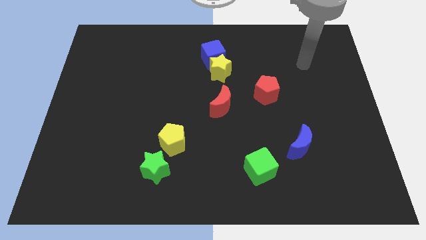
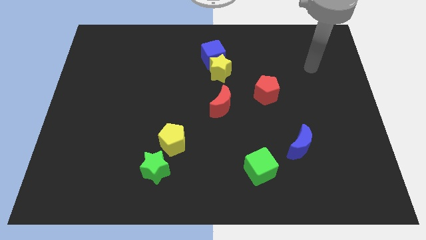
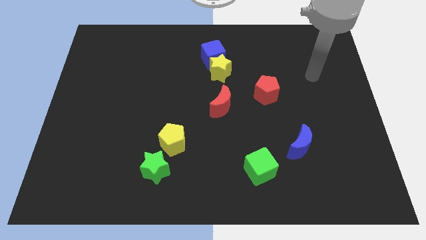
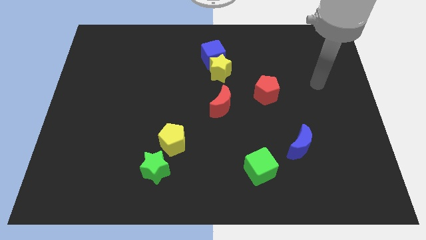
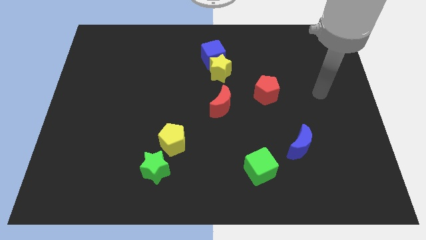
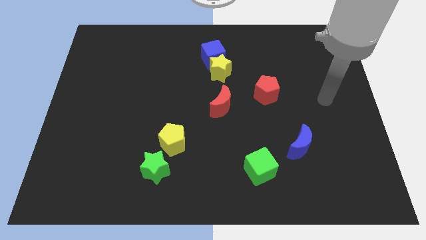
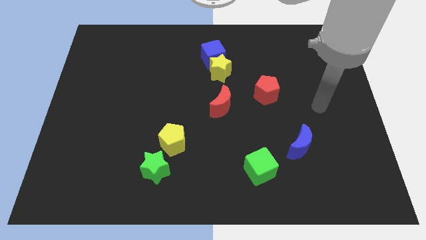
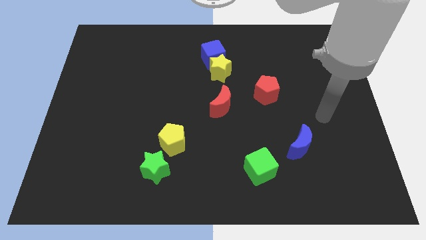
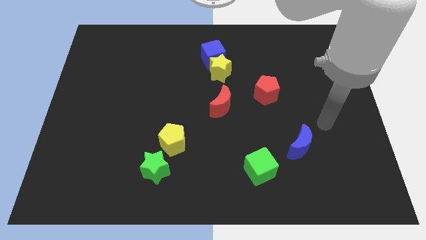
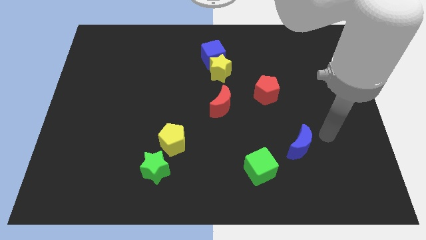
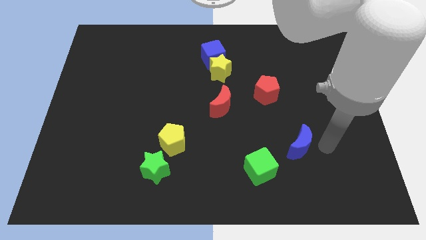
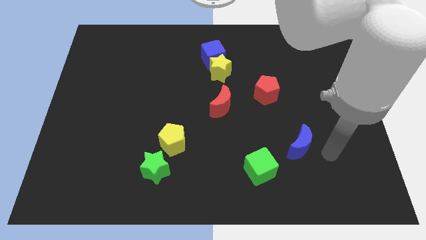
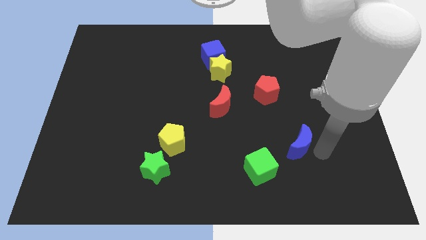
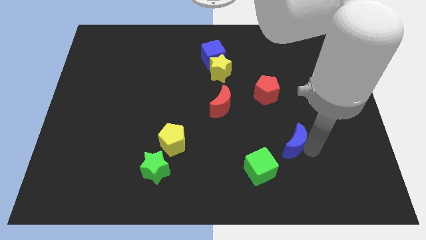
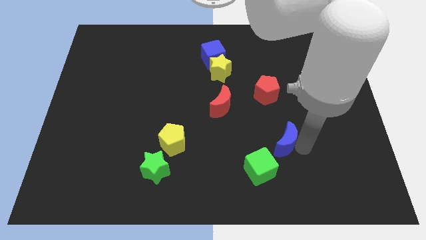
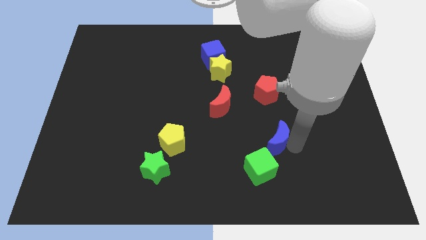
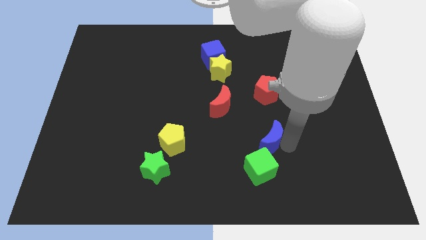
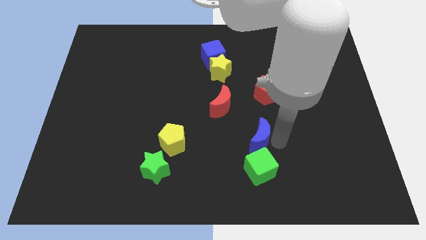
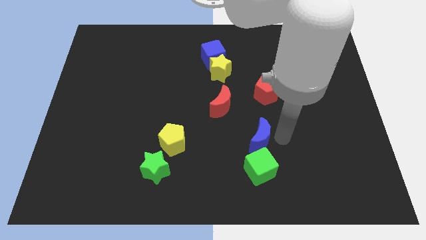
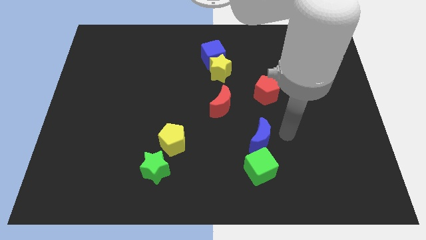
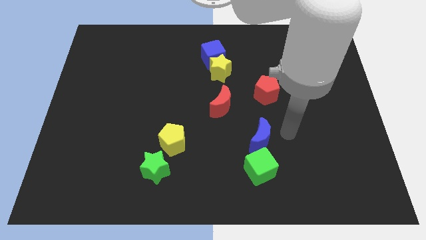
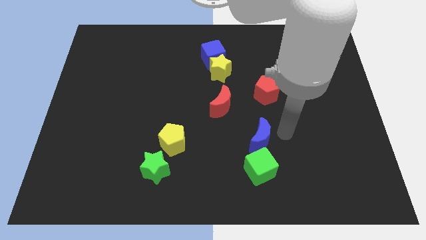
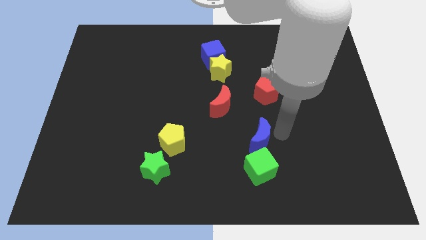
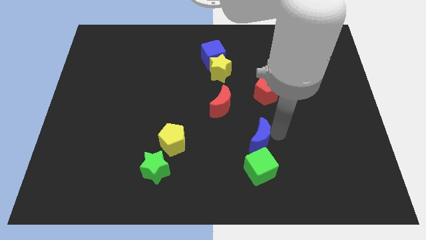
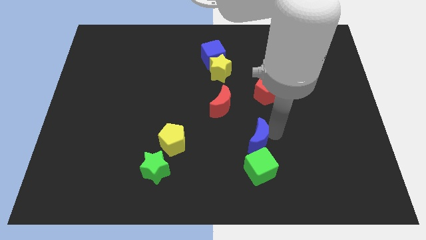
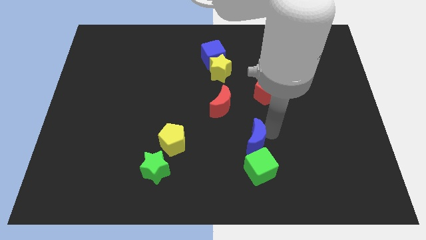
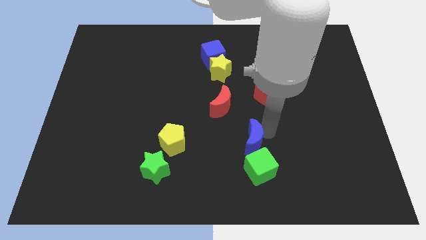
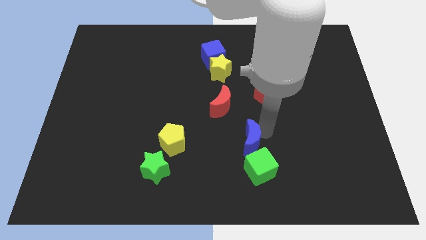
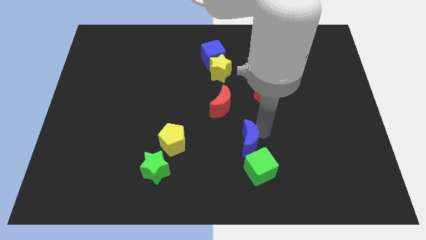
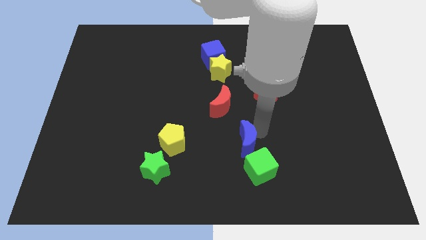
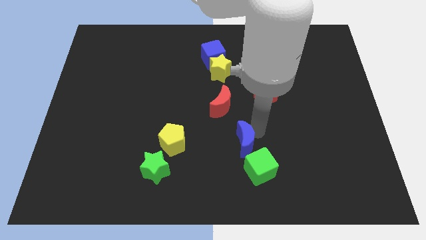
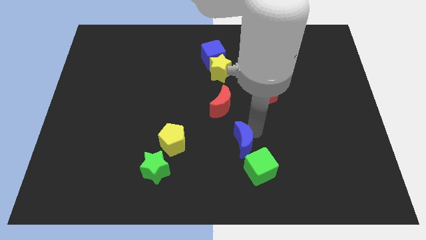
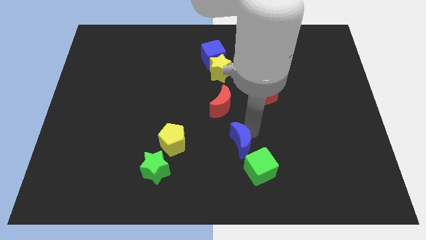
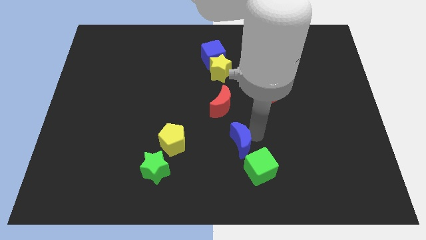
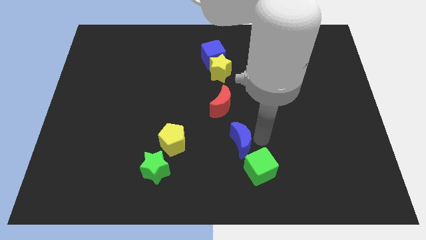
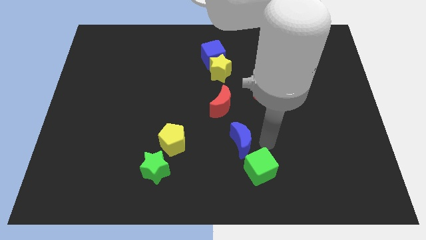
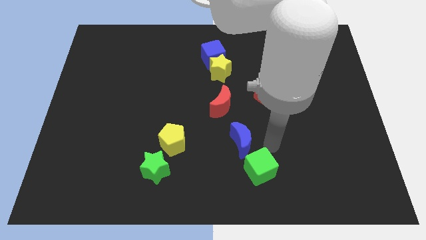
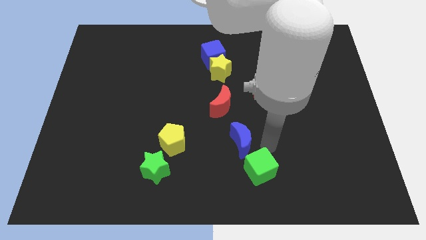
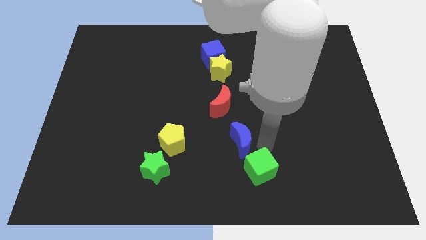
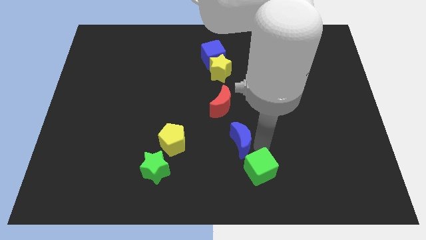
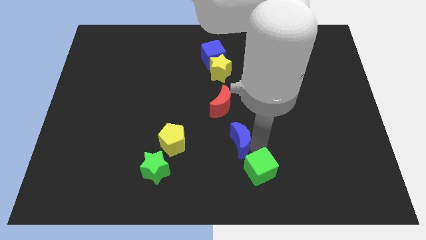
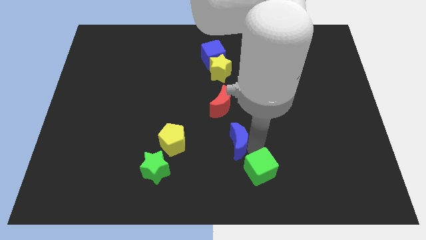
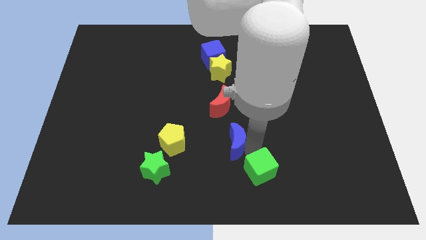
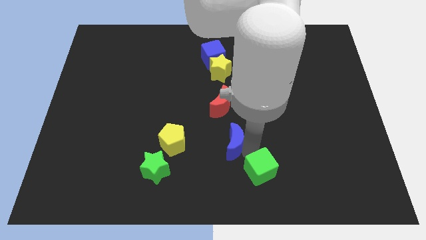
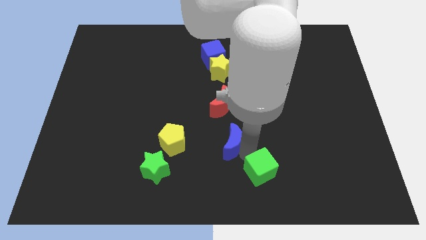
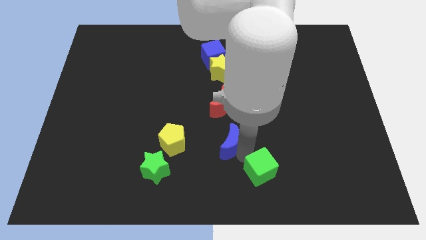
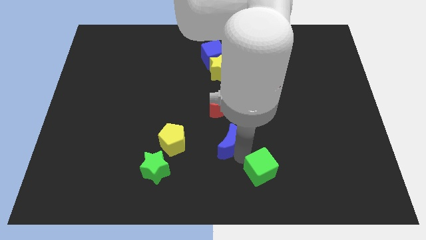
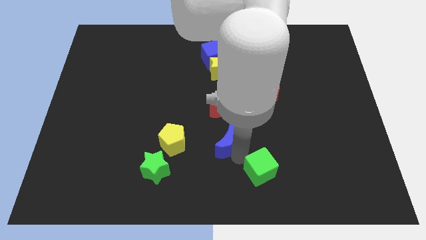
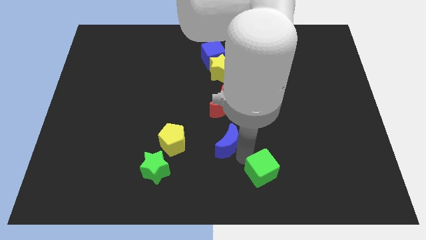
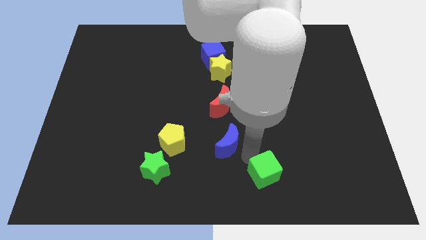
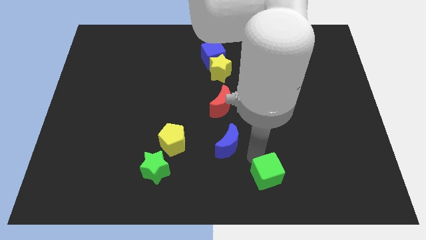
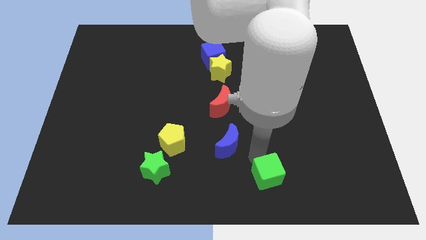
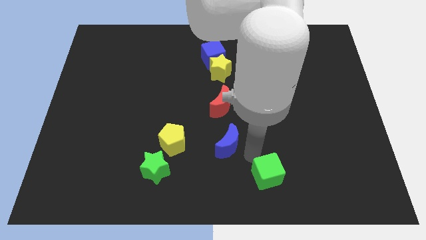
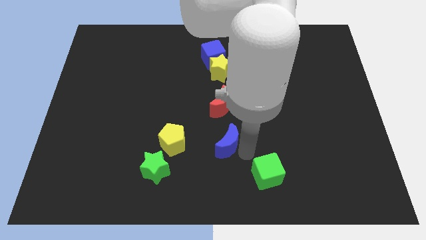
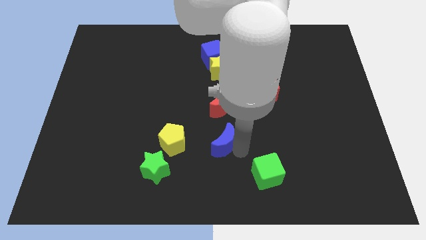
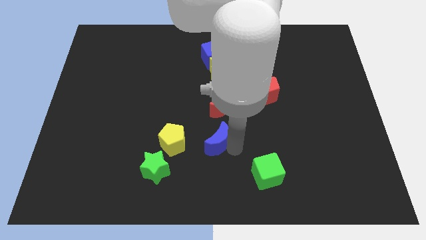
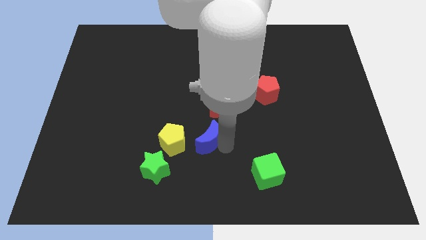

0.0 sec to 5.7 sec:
slide the blue moon to the left

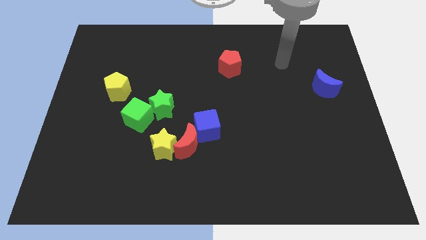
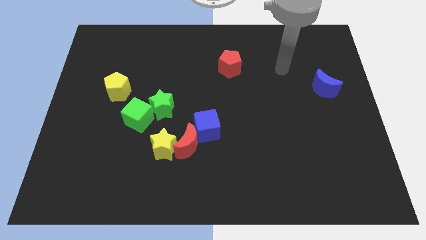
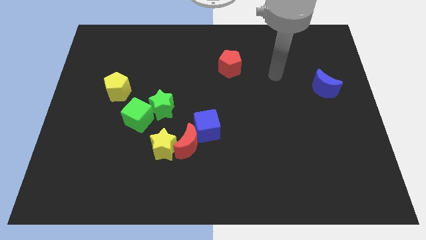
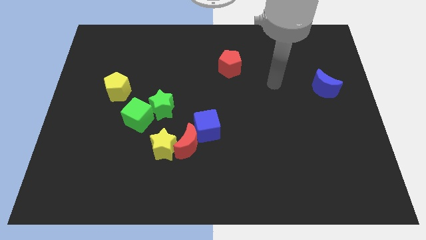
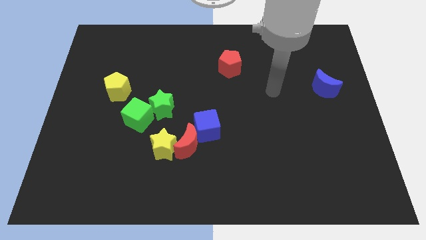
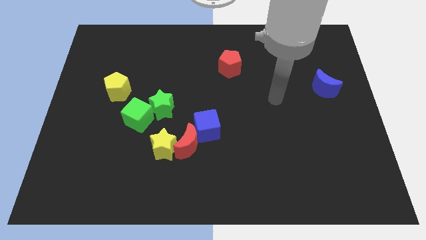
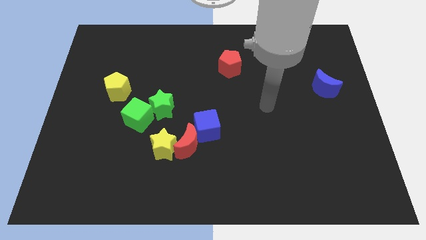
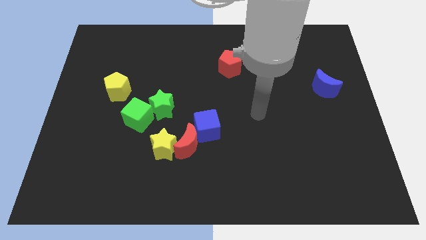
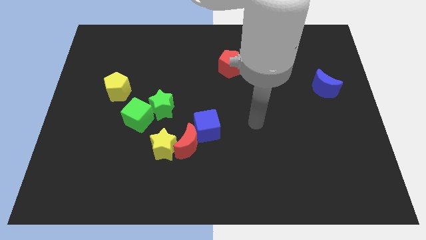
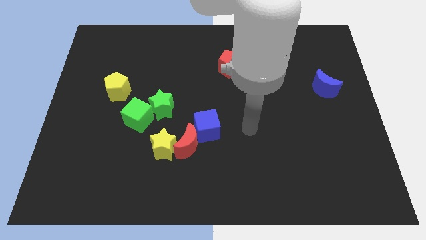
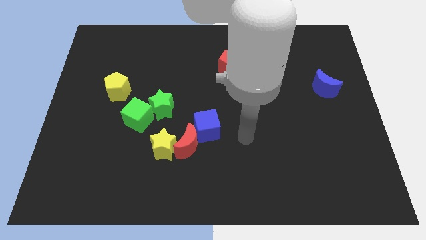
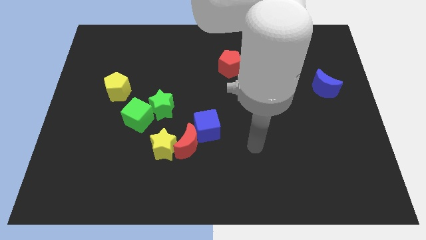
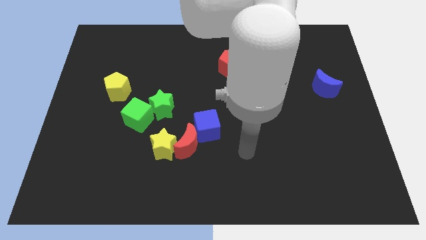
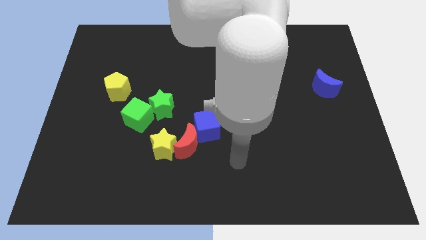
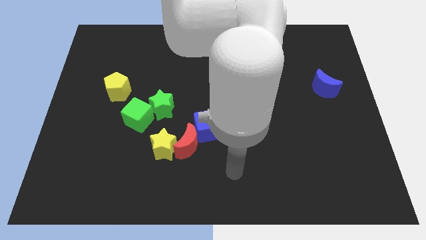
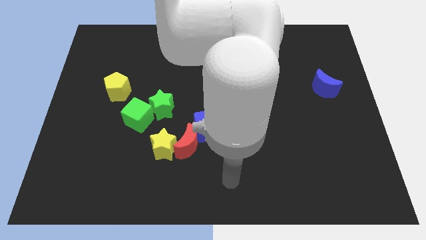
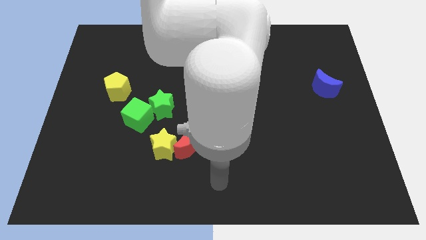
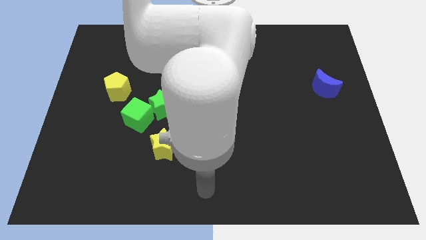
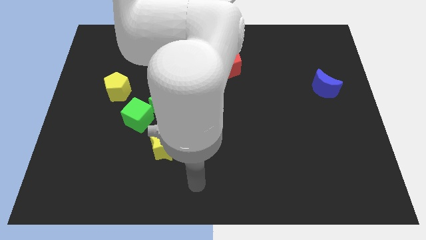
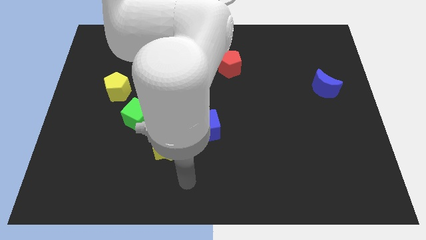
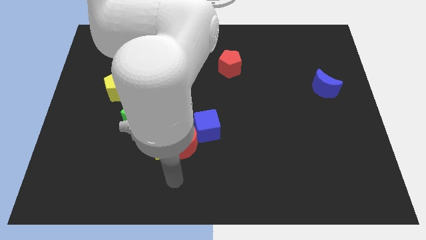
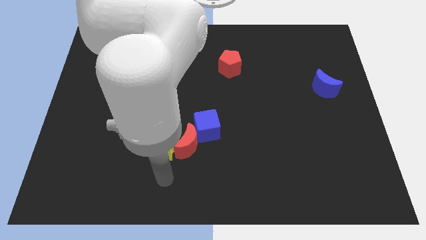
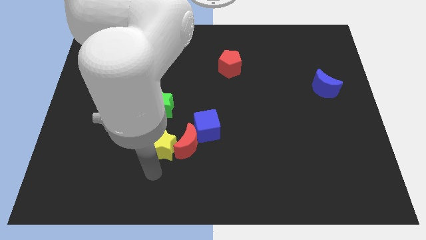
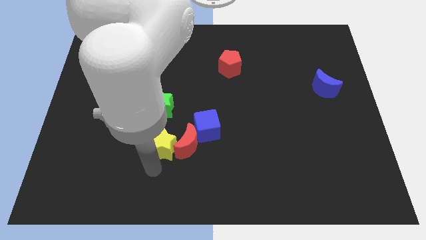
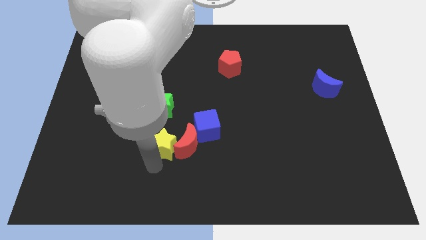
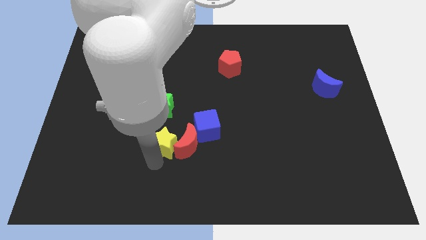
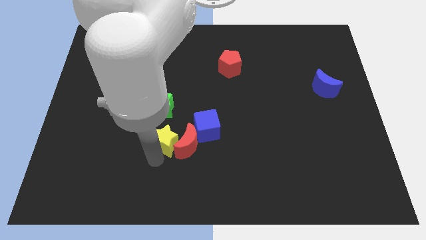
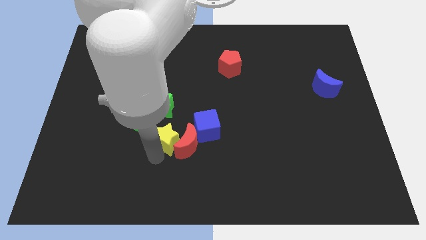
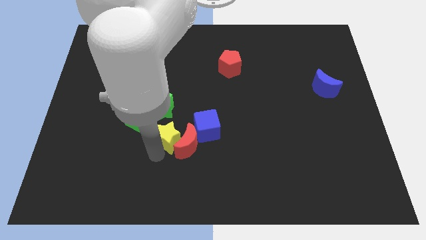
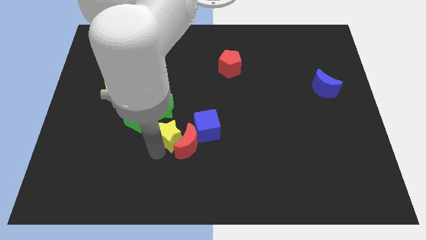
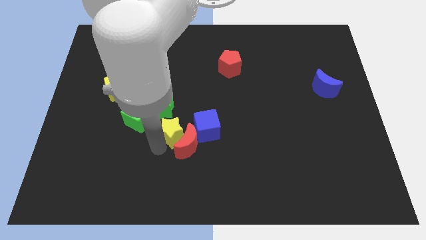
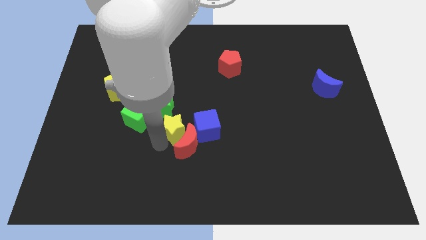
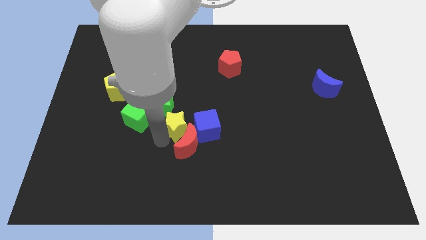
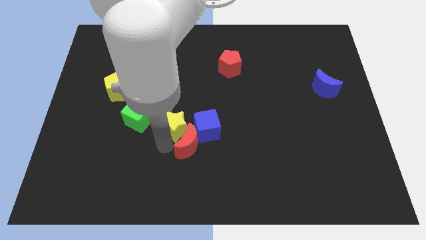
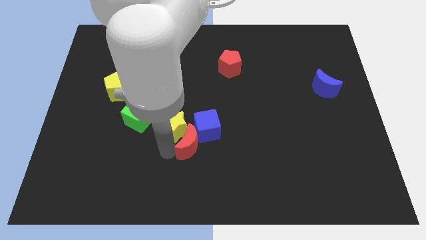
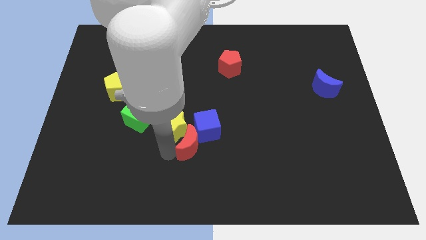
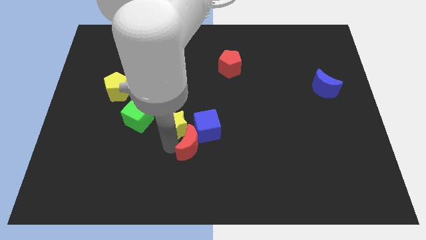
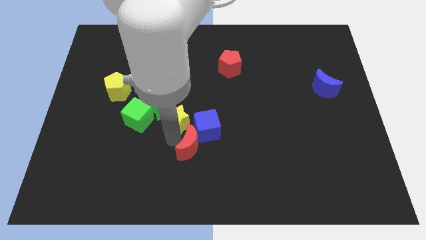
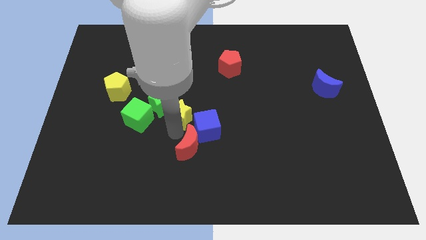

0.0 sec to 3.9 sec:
push the yellow star a little up
